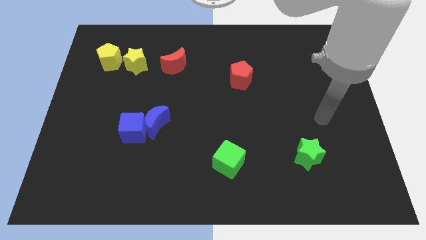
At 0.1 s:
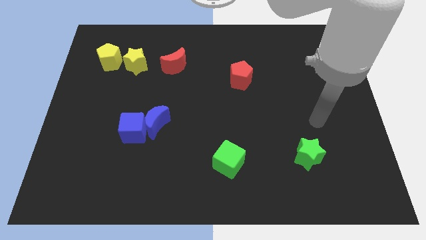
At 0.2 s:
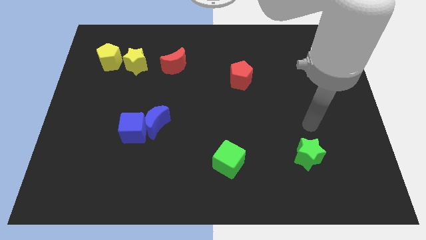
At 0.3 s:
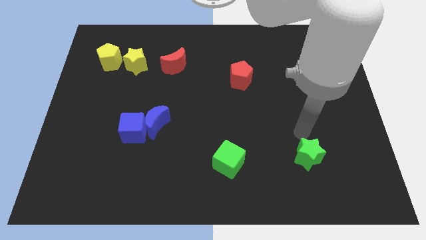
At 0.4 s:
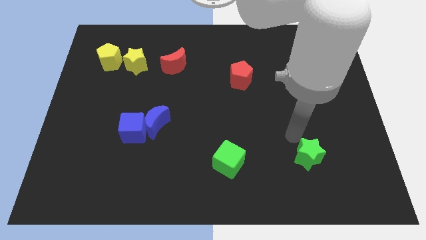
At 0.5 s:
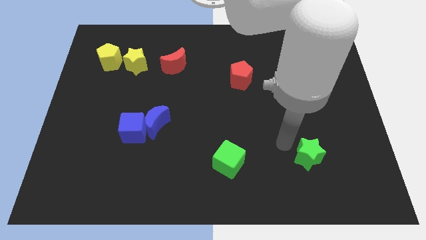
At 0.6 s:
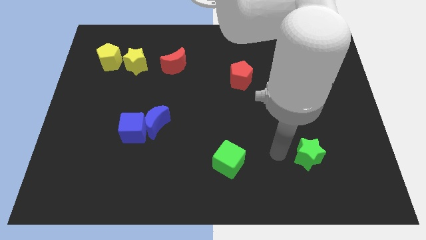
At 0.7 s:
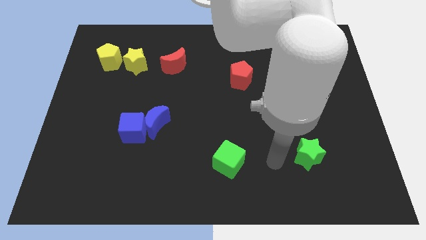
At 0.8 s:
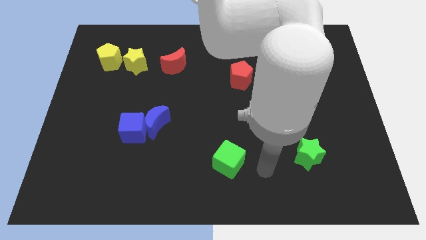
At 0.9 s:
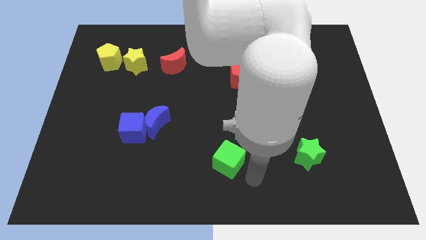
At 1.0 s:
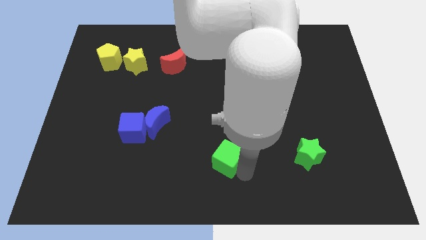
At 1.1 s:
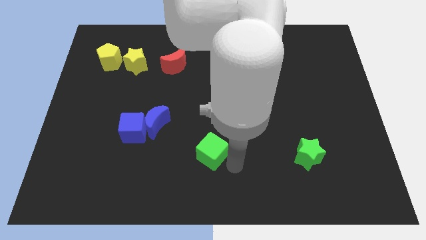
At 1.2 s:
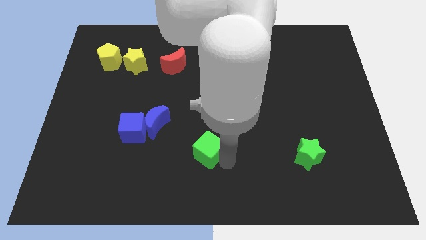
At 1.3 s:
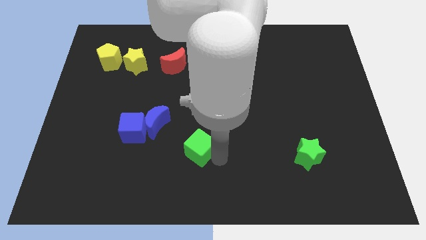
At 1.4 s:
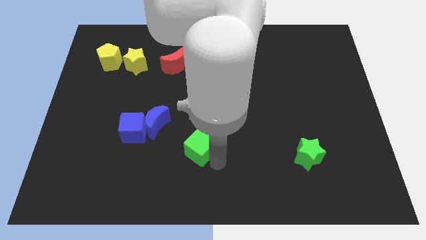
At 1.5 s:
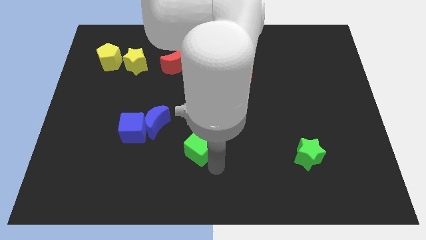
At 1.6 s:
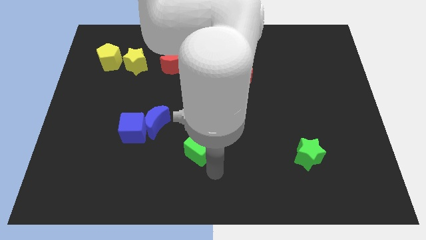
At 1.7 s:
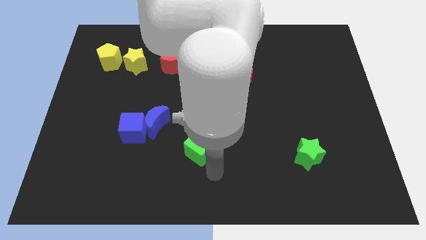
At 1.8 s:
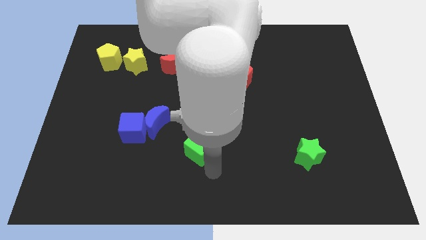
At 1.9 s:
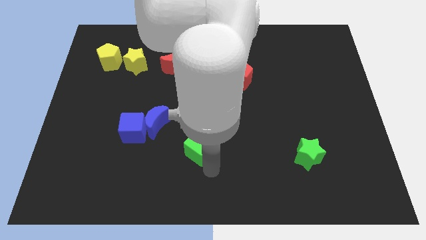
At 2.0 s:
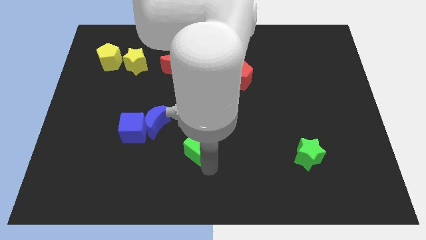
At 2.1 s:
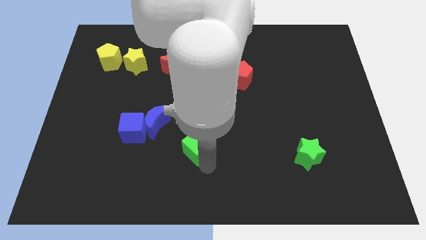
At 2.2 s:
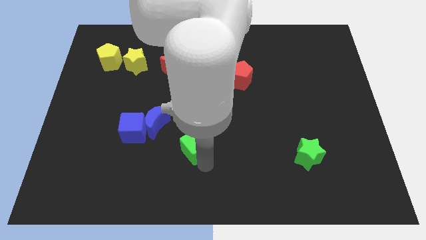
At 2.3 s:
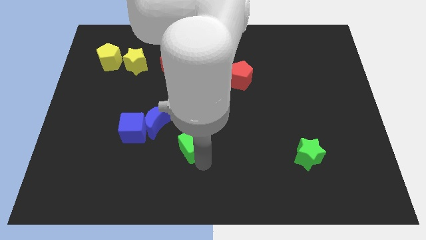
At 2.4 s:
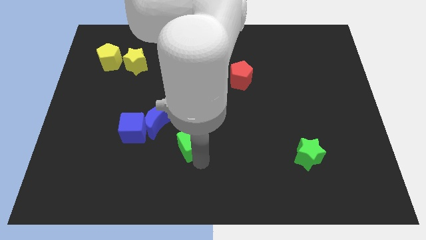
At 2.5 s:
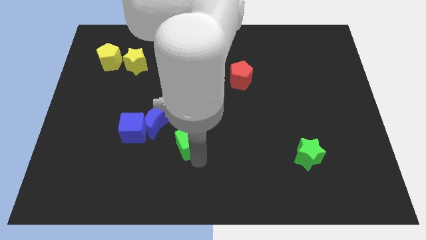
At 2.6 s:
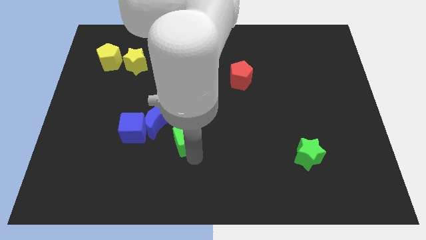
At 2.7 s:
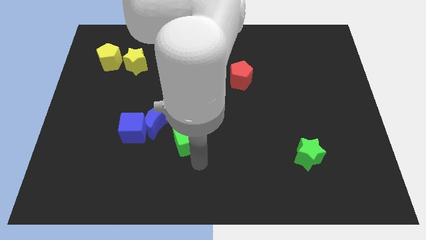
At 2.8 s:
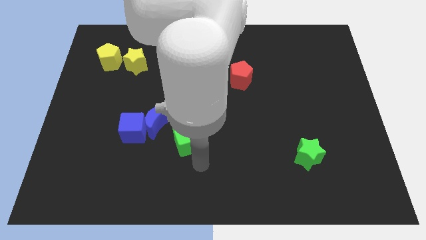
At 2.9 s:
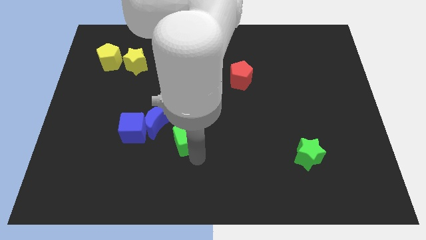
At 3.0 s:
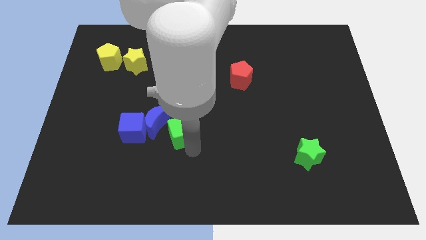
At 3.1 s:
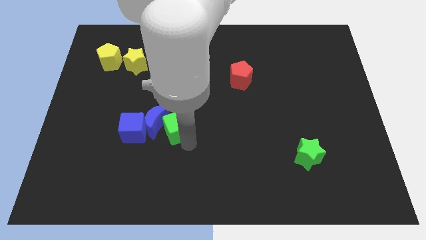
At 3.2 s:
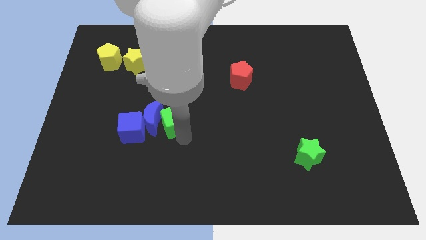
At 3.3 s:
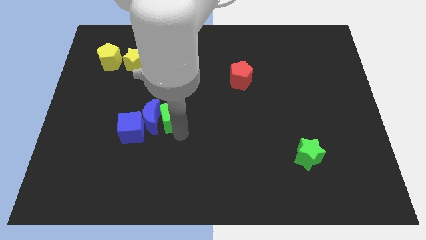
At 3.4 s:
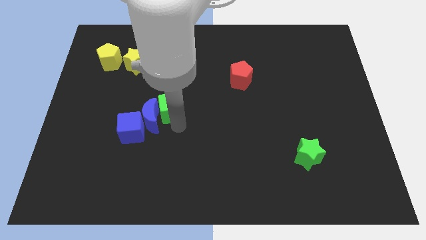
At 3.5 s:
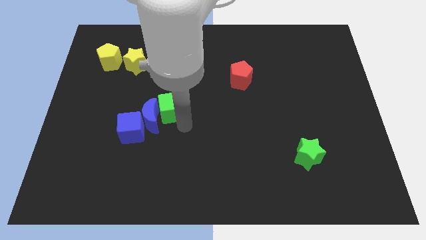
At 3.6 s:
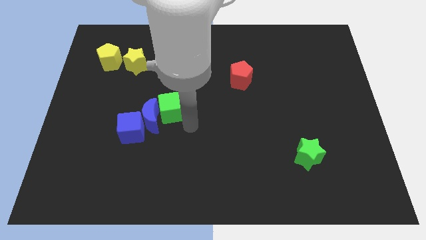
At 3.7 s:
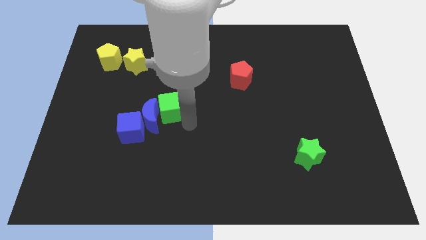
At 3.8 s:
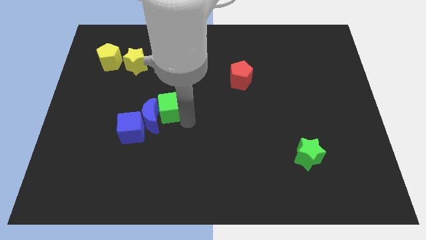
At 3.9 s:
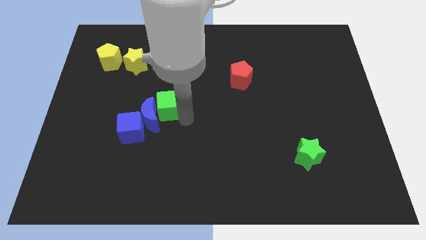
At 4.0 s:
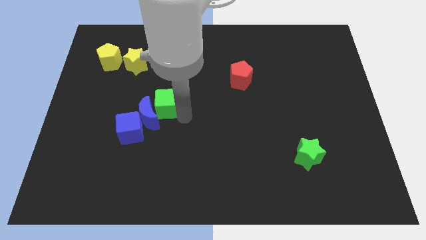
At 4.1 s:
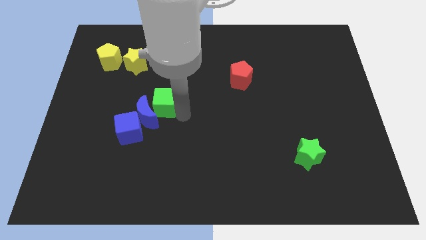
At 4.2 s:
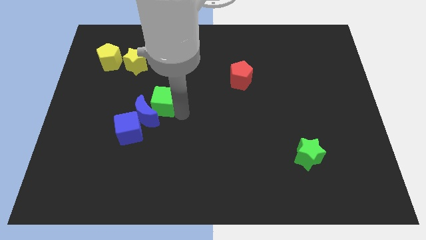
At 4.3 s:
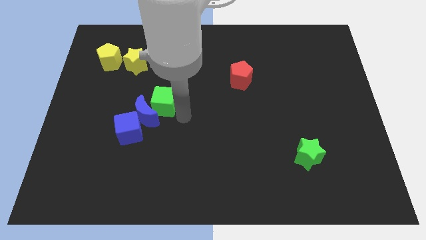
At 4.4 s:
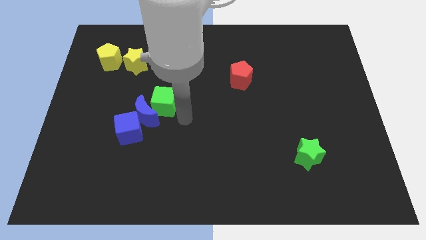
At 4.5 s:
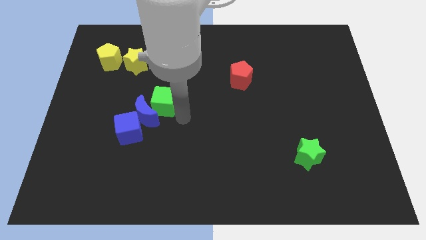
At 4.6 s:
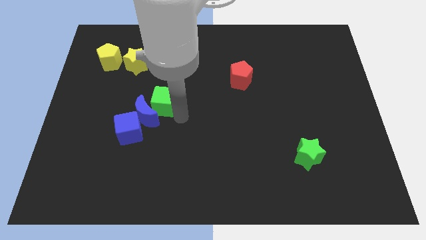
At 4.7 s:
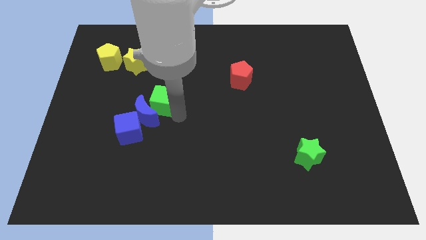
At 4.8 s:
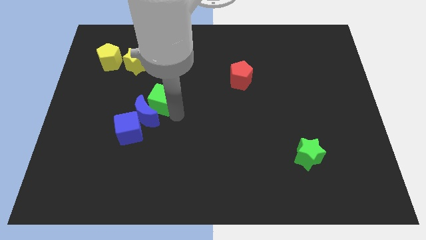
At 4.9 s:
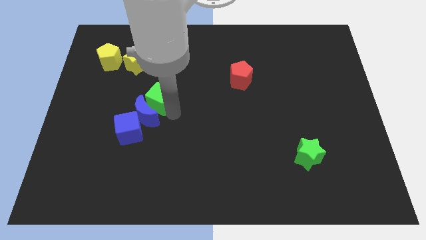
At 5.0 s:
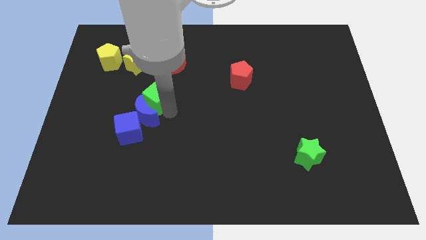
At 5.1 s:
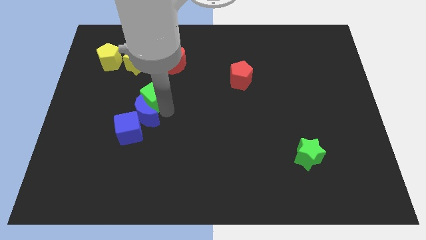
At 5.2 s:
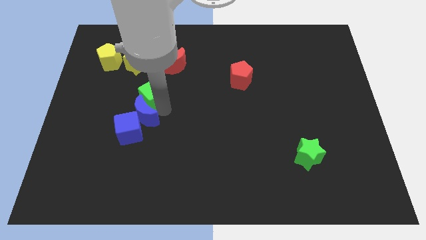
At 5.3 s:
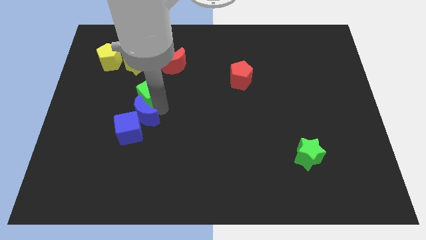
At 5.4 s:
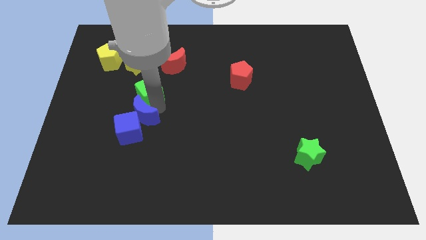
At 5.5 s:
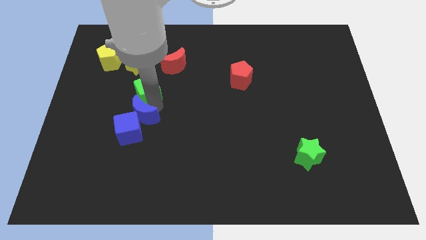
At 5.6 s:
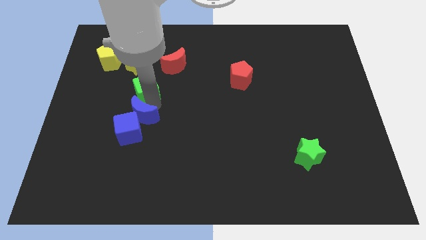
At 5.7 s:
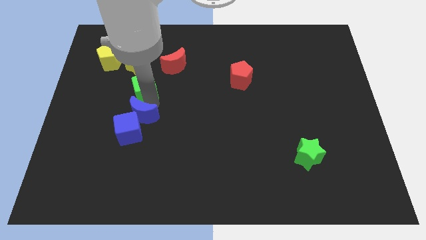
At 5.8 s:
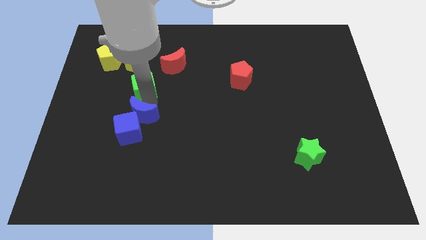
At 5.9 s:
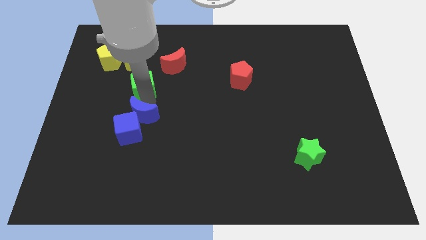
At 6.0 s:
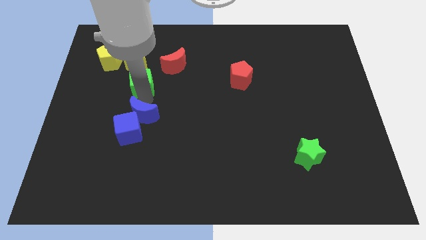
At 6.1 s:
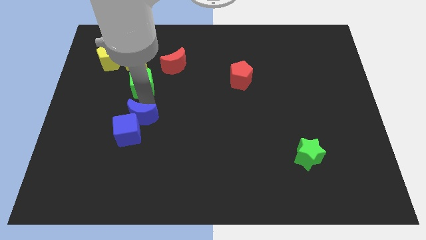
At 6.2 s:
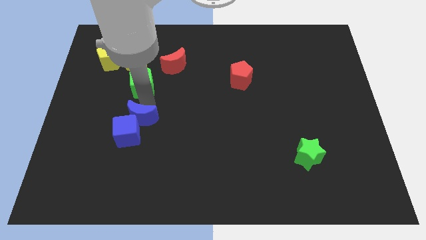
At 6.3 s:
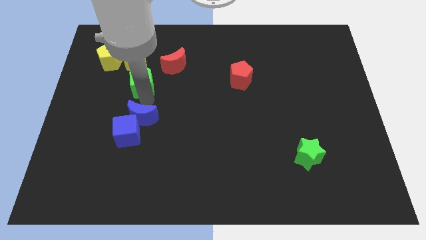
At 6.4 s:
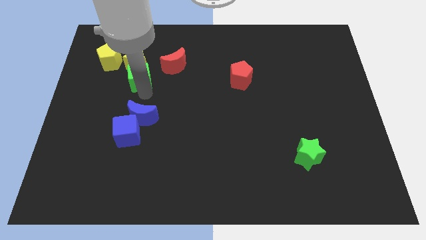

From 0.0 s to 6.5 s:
put the green cube next to the yellow star

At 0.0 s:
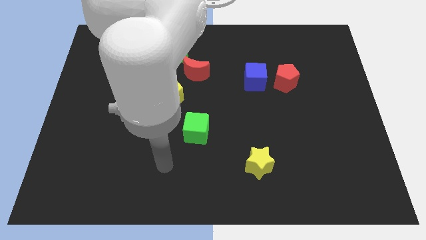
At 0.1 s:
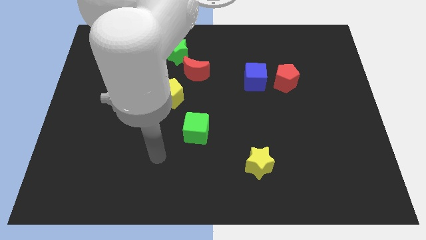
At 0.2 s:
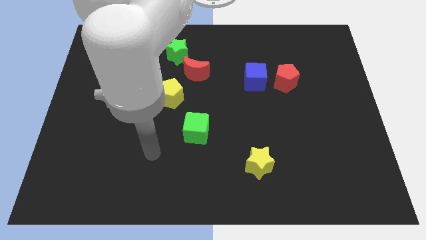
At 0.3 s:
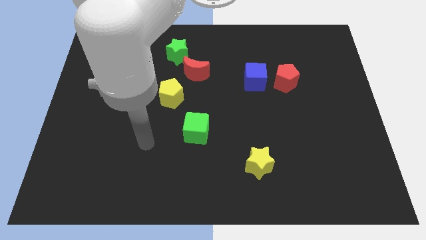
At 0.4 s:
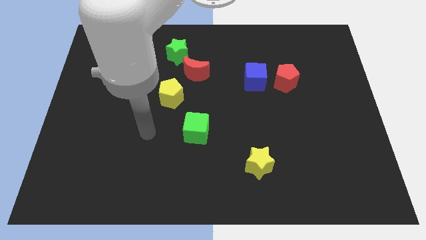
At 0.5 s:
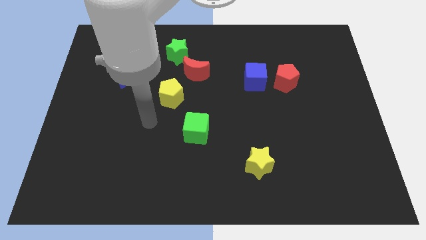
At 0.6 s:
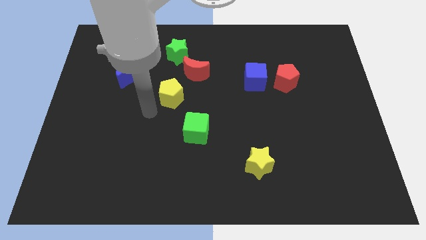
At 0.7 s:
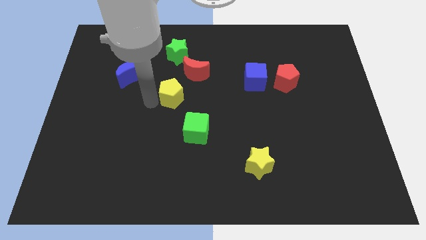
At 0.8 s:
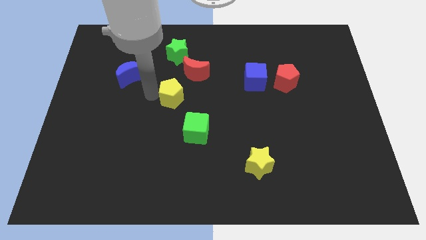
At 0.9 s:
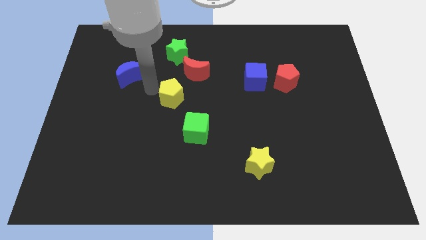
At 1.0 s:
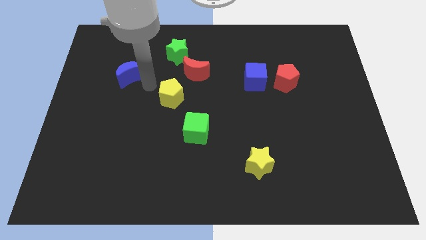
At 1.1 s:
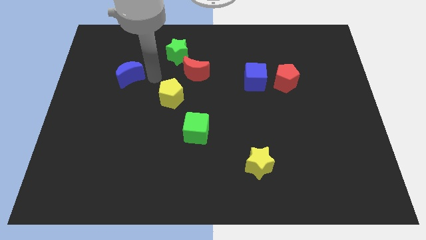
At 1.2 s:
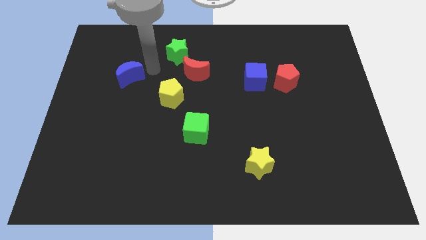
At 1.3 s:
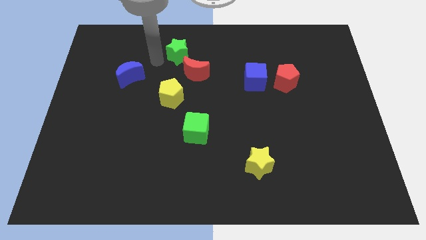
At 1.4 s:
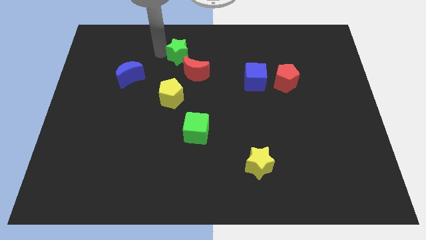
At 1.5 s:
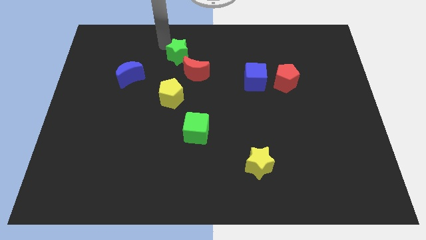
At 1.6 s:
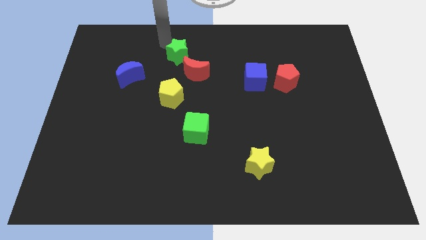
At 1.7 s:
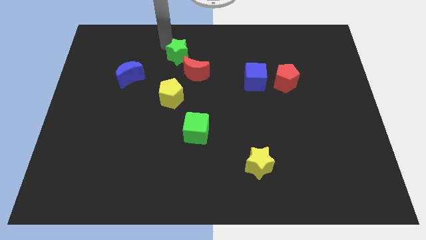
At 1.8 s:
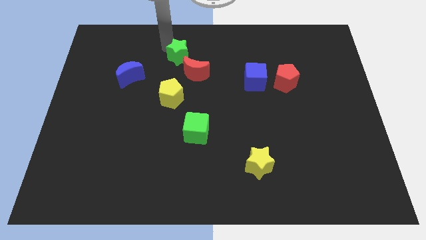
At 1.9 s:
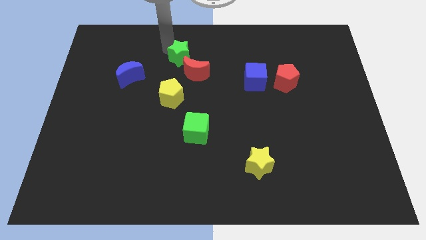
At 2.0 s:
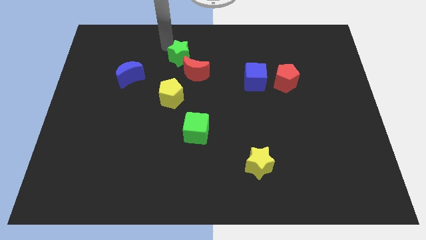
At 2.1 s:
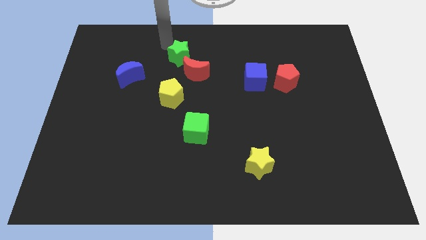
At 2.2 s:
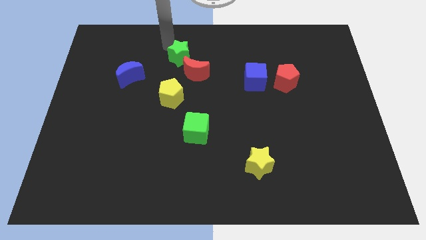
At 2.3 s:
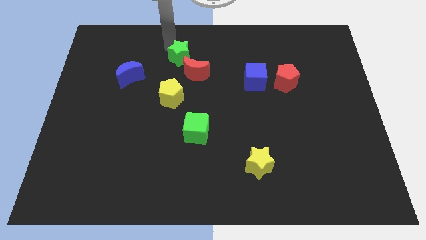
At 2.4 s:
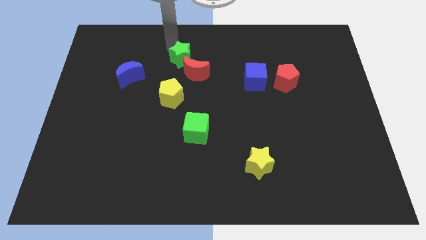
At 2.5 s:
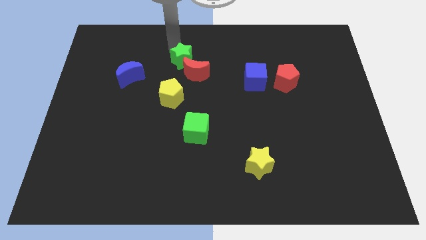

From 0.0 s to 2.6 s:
slide the green star towards the red moon
